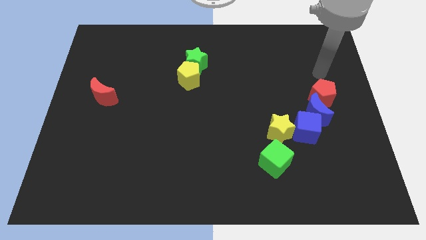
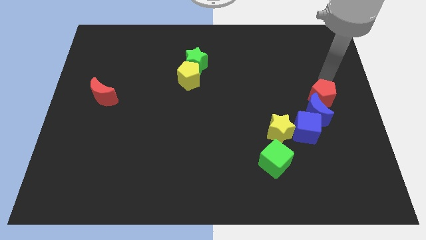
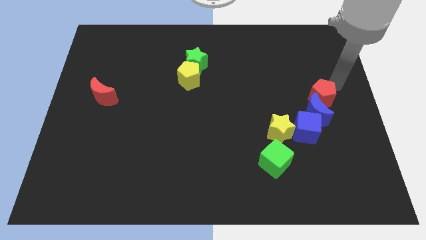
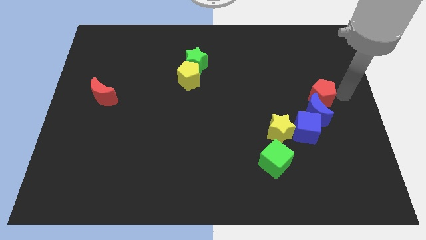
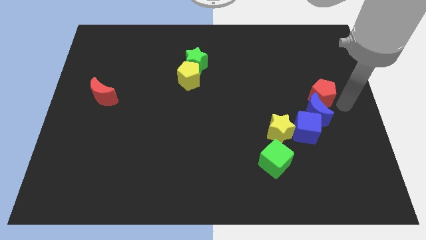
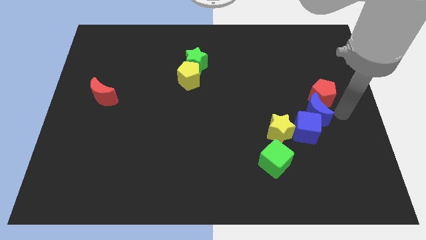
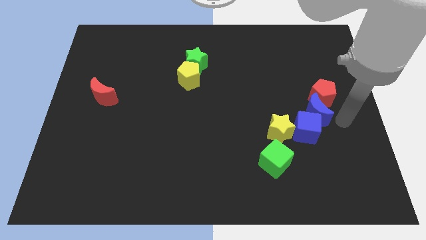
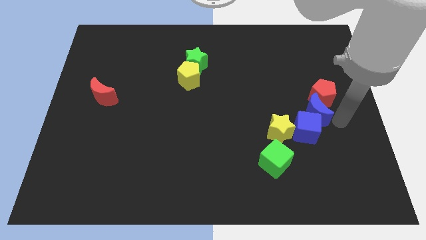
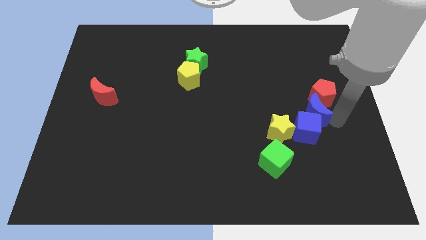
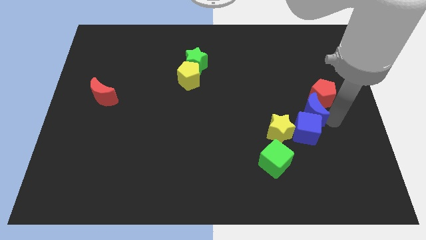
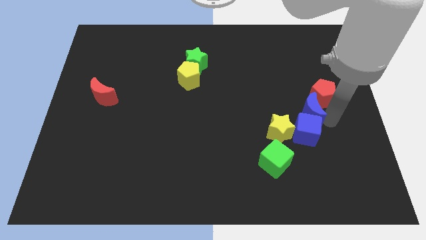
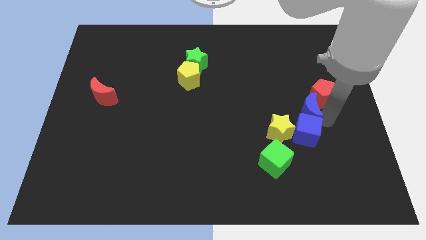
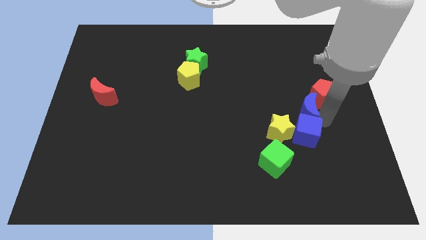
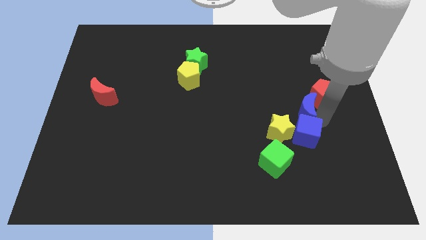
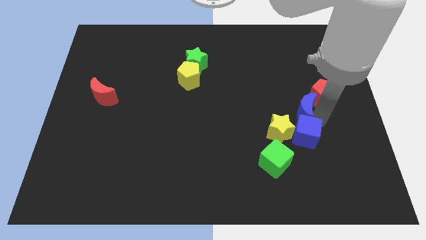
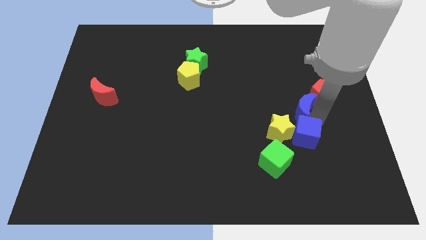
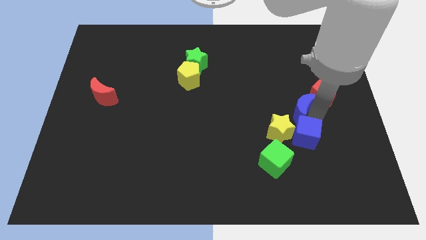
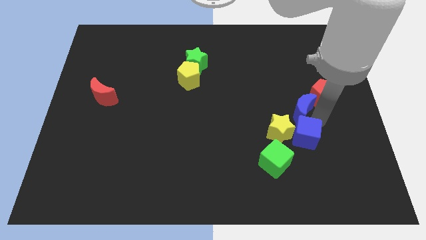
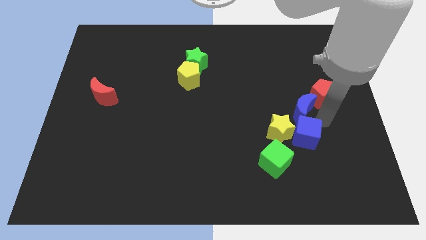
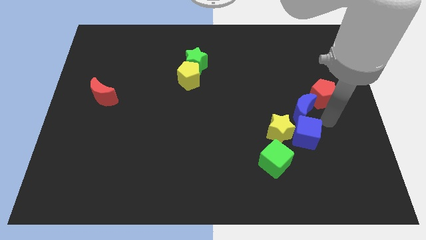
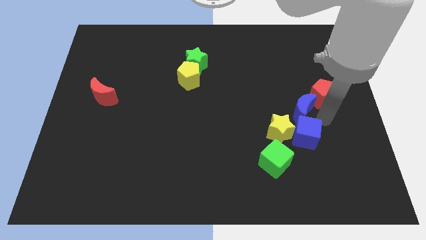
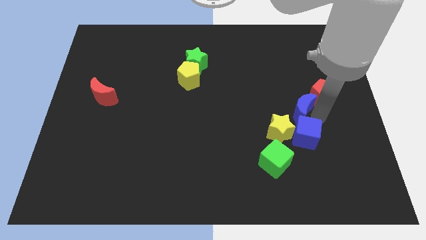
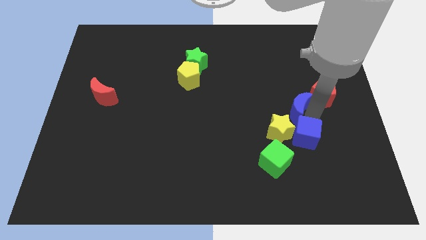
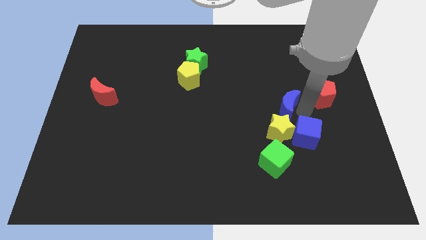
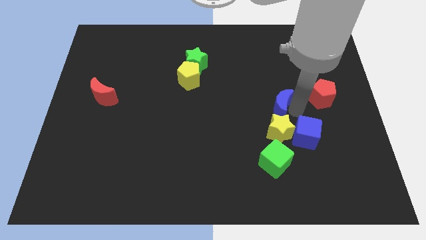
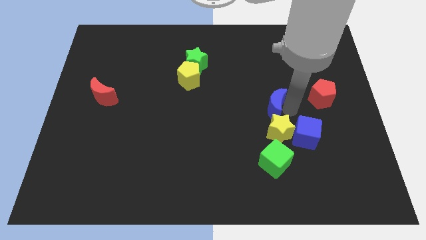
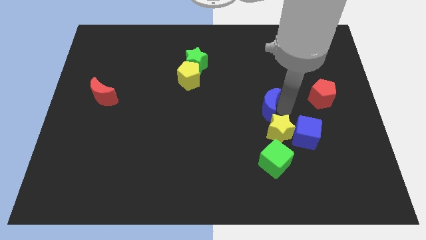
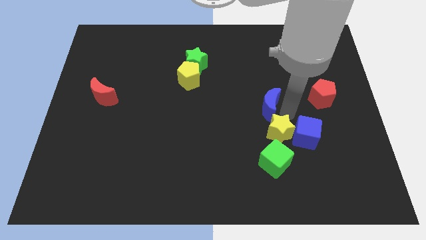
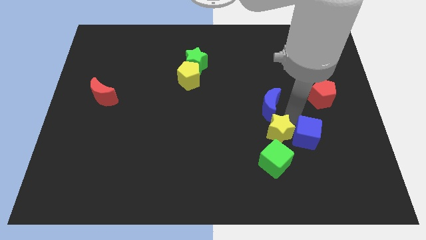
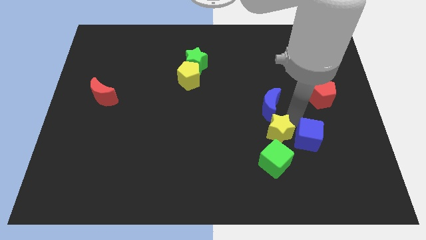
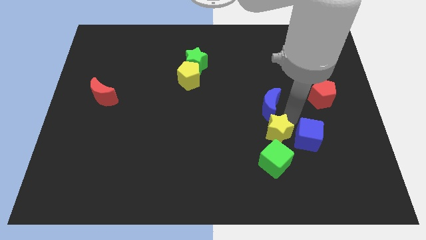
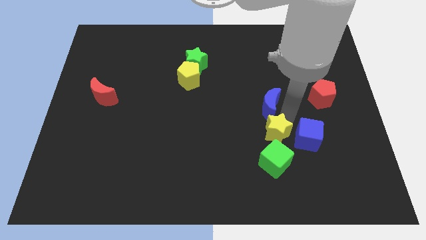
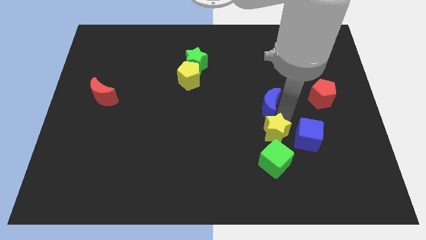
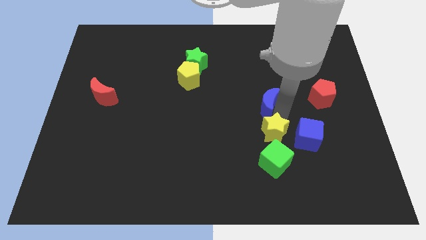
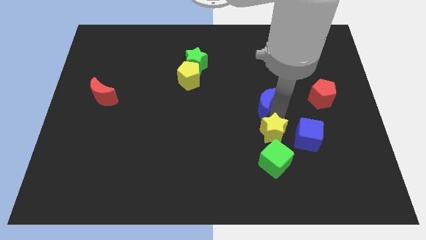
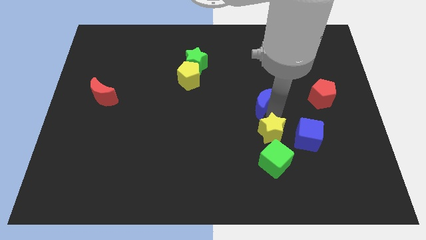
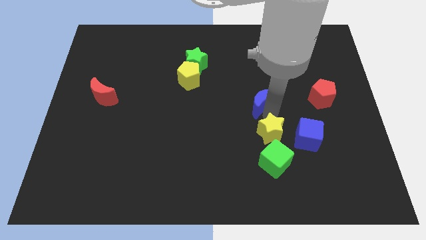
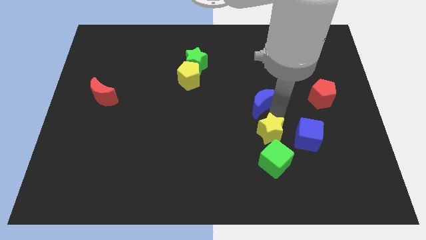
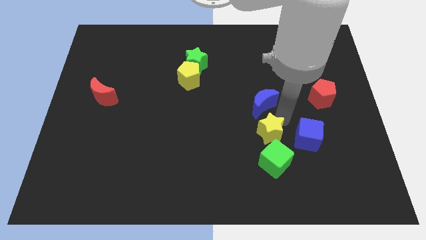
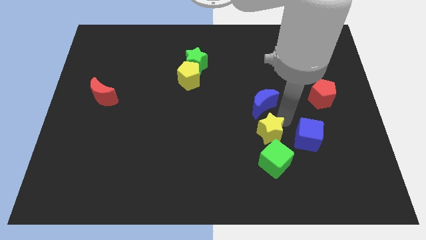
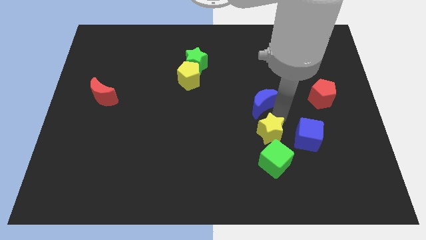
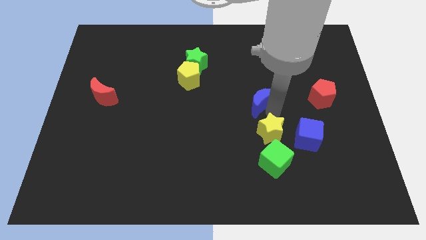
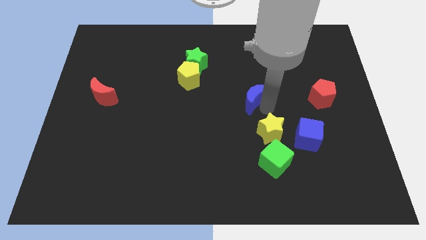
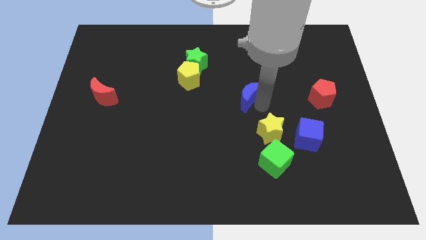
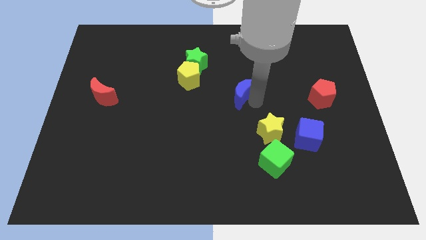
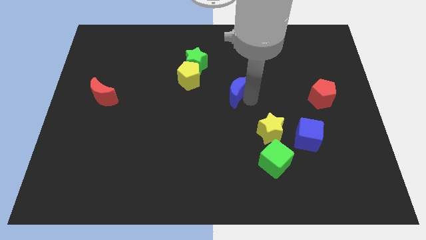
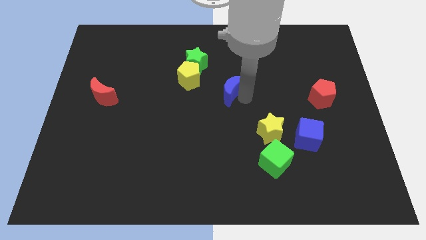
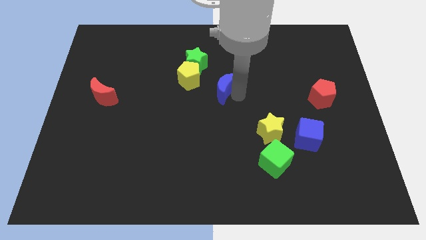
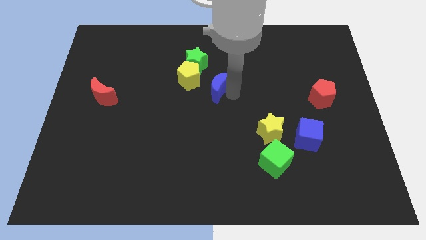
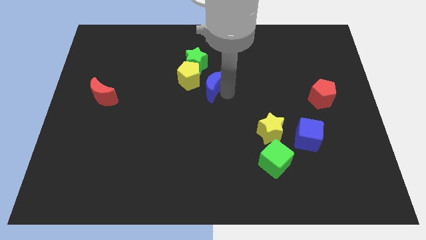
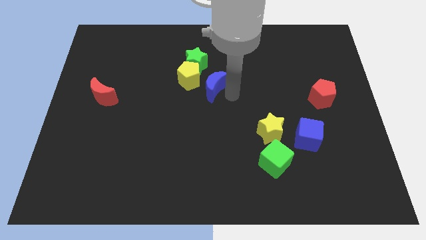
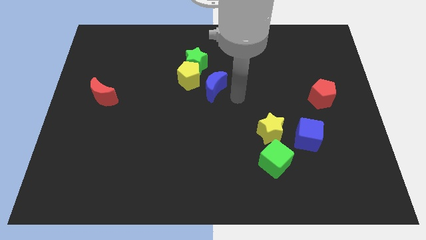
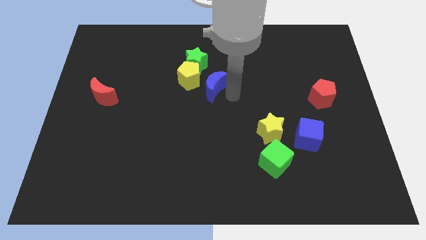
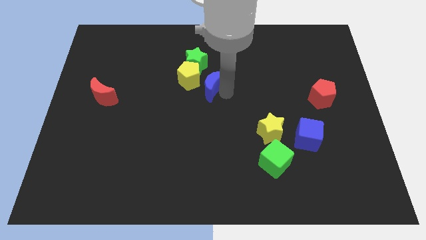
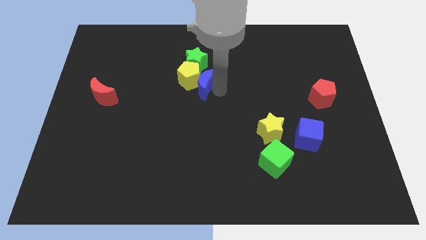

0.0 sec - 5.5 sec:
slide the blue moon close to the yellow pentagon

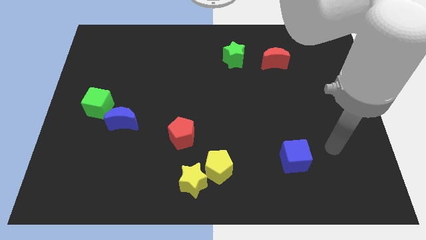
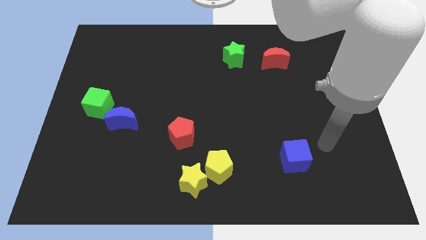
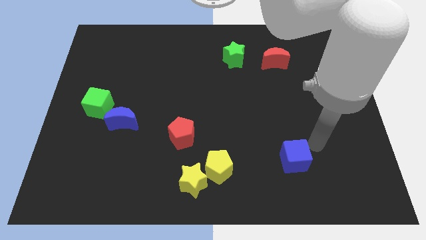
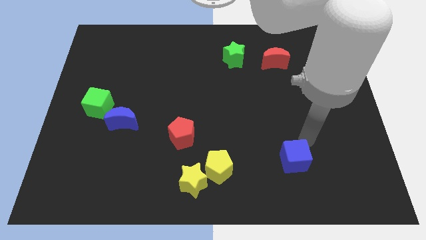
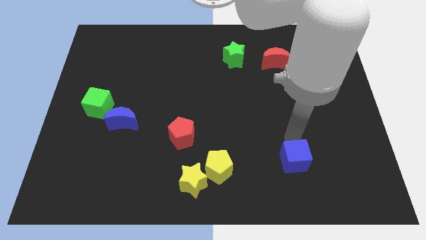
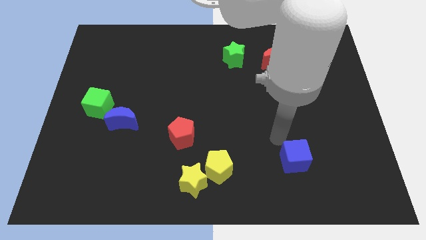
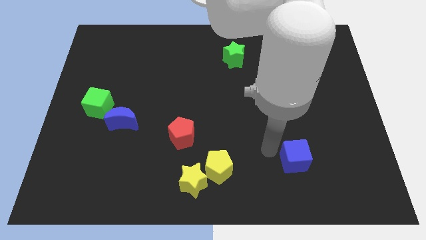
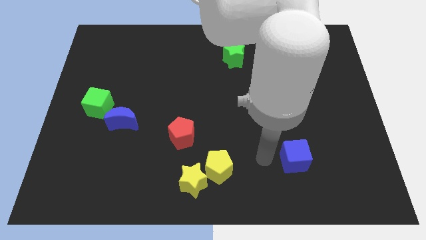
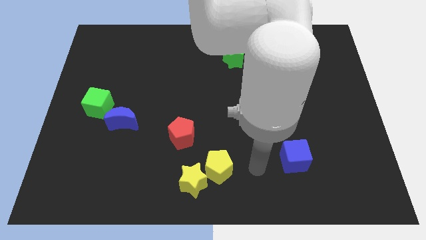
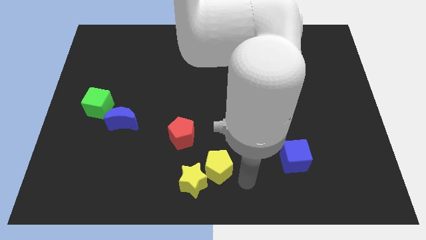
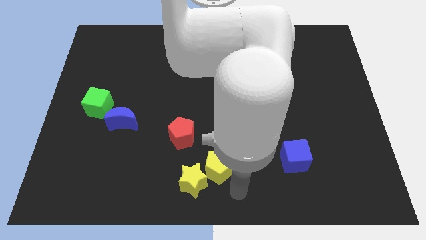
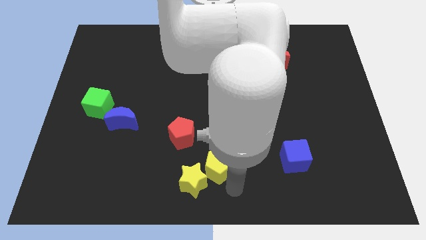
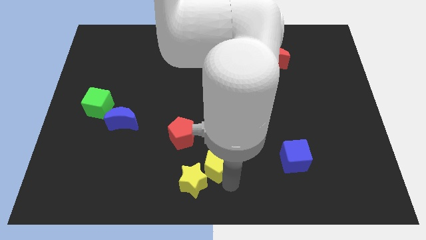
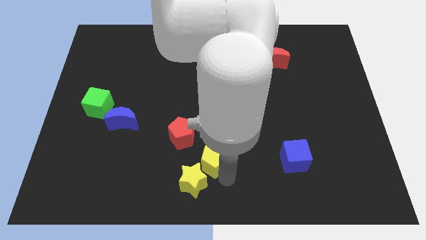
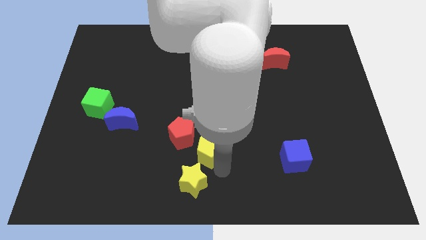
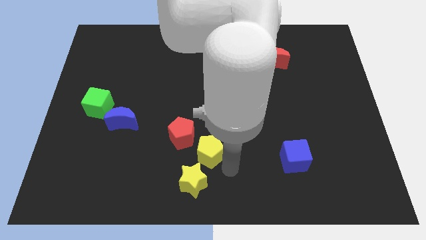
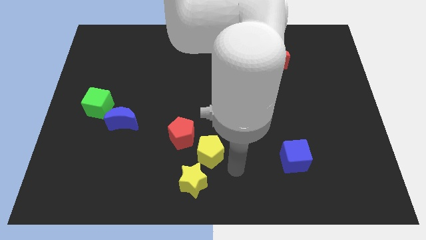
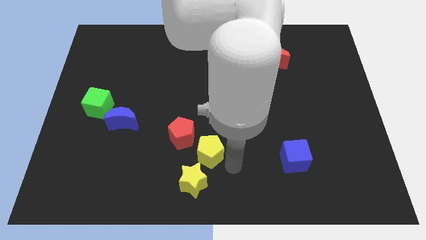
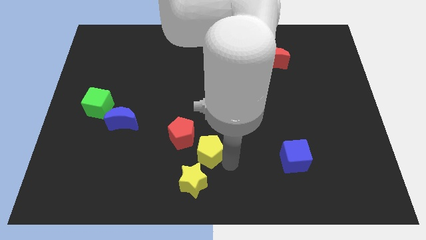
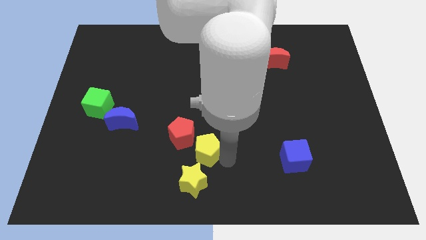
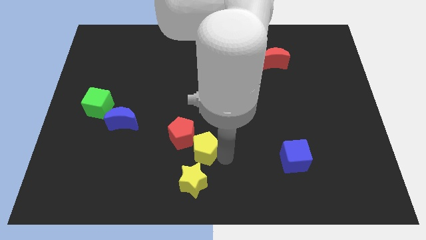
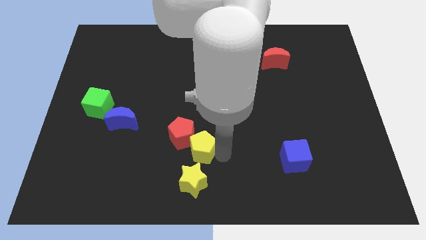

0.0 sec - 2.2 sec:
put the yellow pentagon to the red pentagon
